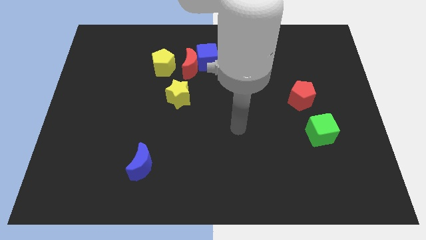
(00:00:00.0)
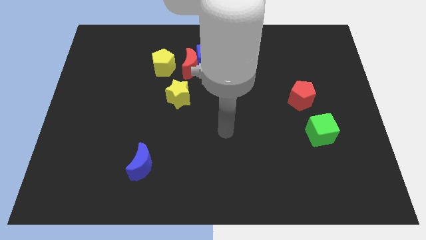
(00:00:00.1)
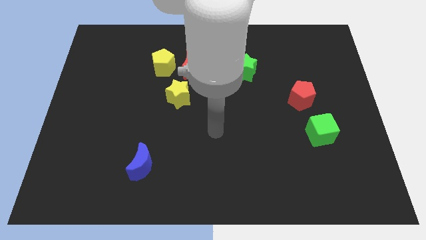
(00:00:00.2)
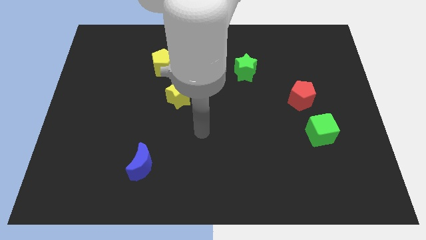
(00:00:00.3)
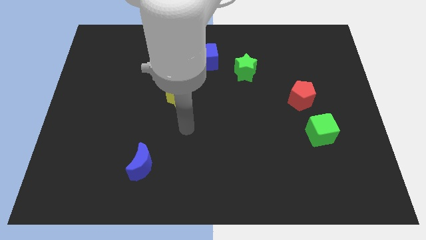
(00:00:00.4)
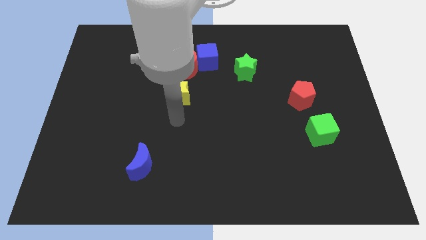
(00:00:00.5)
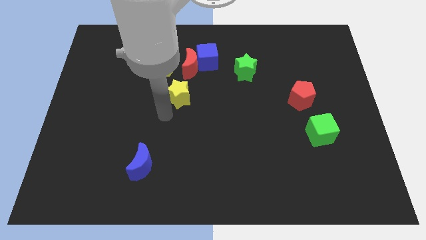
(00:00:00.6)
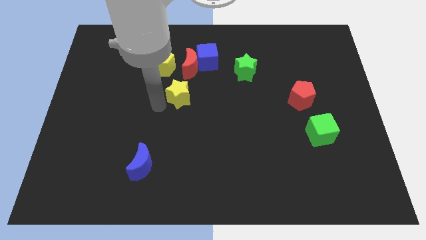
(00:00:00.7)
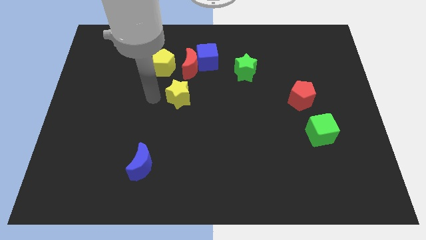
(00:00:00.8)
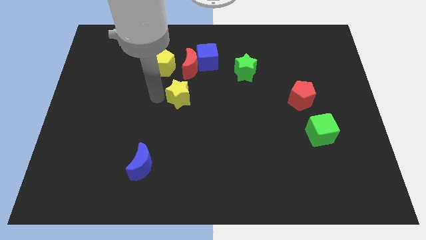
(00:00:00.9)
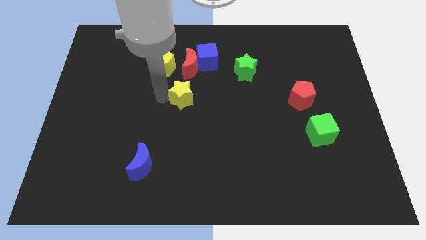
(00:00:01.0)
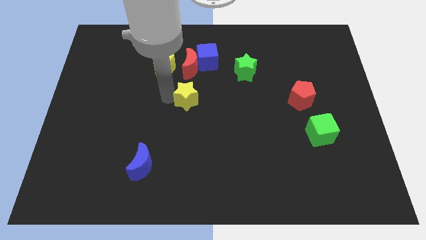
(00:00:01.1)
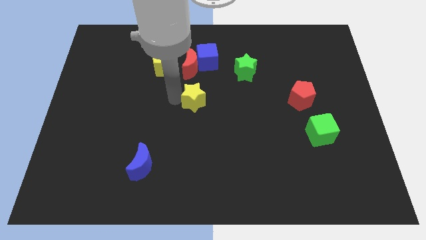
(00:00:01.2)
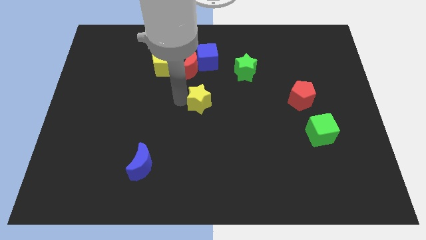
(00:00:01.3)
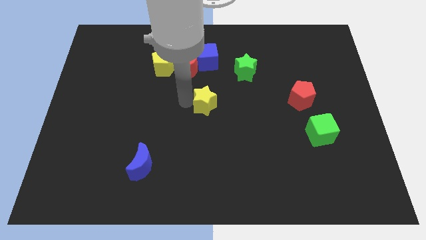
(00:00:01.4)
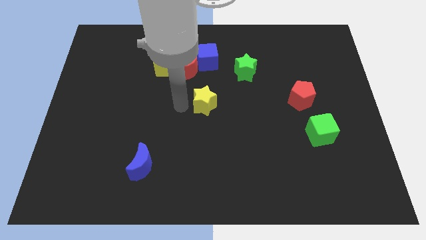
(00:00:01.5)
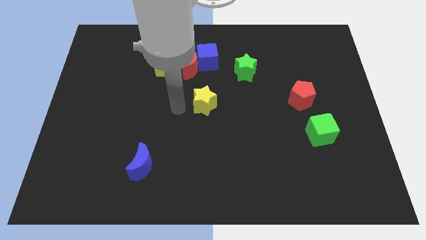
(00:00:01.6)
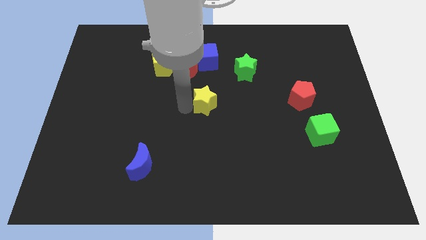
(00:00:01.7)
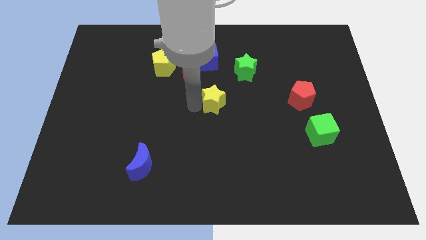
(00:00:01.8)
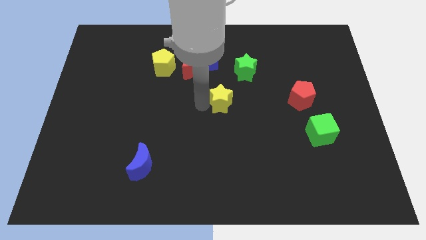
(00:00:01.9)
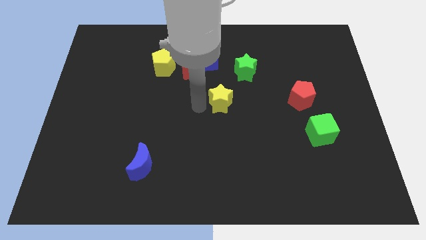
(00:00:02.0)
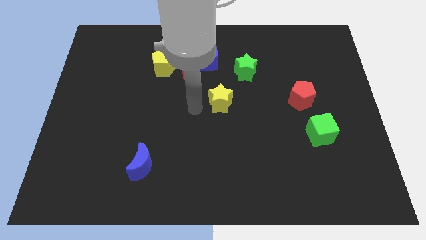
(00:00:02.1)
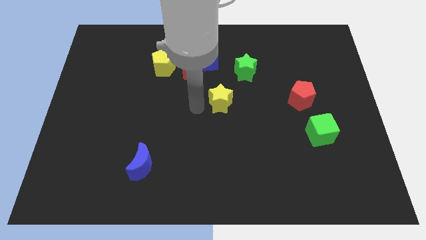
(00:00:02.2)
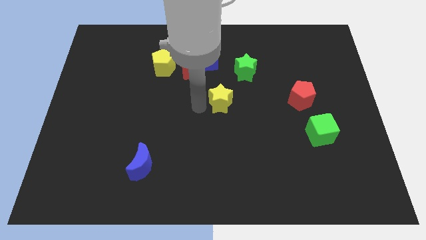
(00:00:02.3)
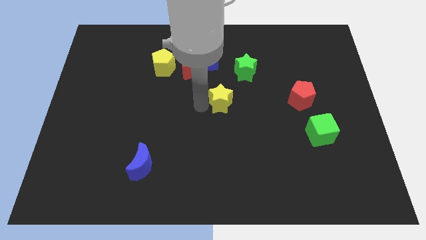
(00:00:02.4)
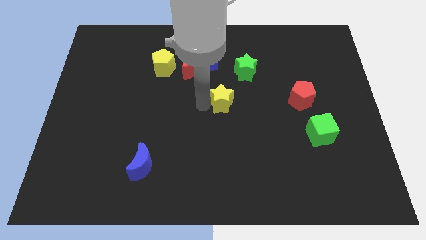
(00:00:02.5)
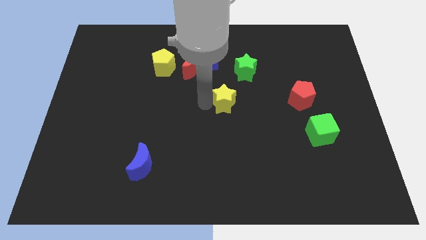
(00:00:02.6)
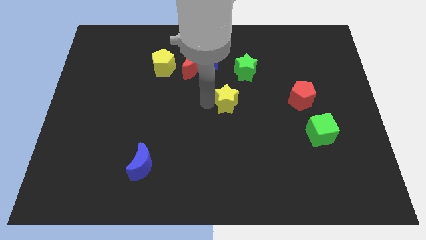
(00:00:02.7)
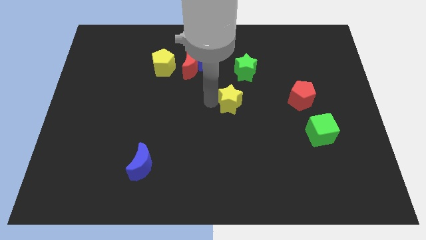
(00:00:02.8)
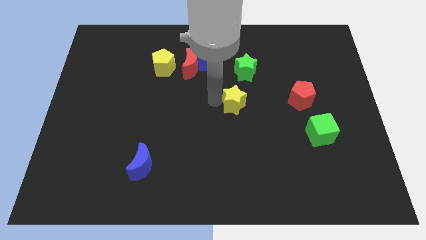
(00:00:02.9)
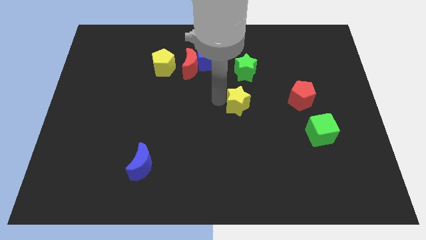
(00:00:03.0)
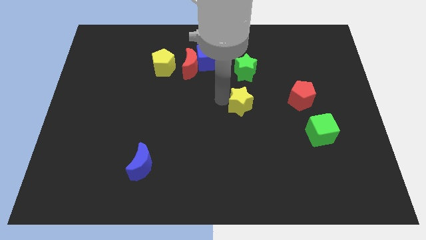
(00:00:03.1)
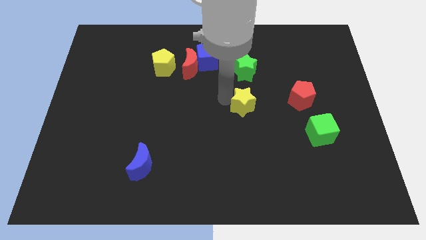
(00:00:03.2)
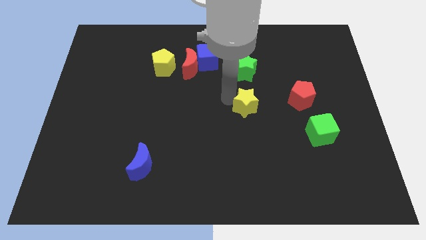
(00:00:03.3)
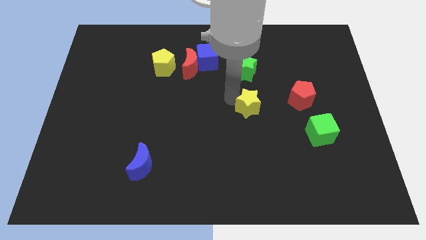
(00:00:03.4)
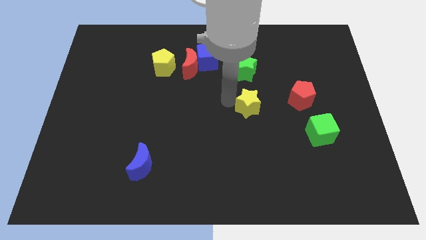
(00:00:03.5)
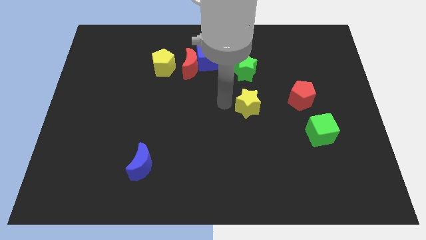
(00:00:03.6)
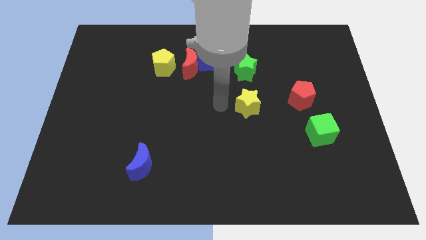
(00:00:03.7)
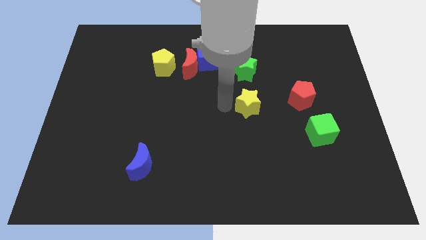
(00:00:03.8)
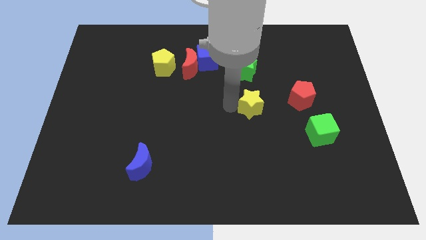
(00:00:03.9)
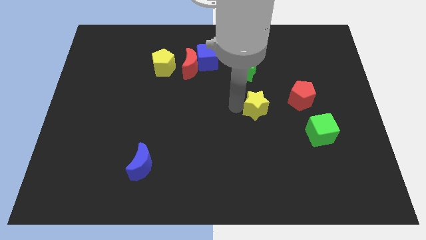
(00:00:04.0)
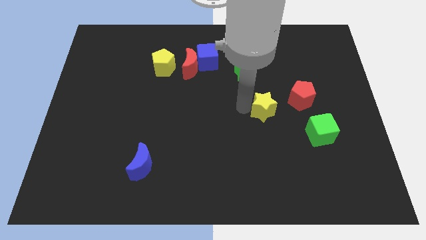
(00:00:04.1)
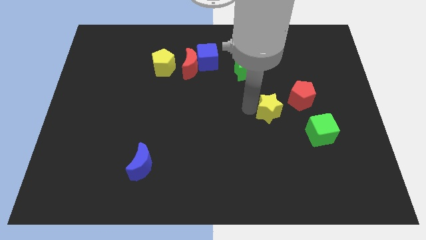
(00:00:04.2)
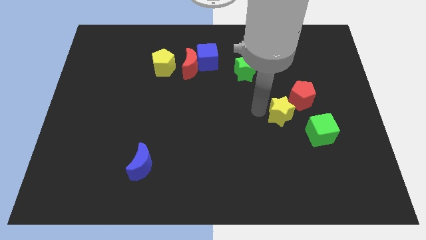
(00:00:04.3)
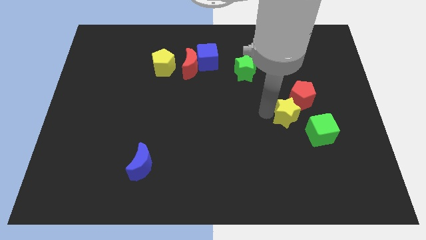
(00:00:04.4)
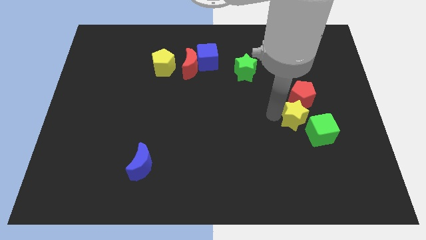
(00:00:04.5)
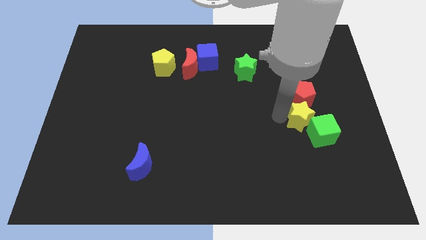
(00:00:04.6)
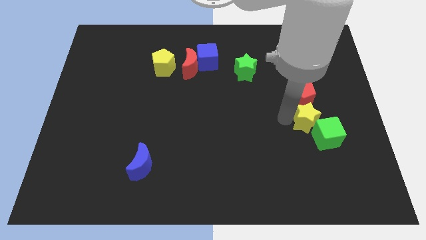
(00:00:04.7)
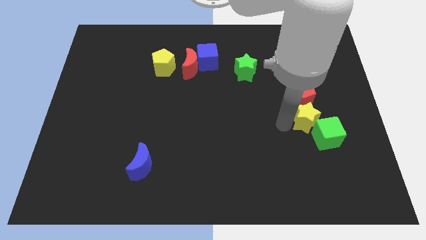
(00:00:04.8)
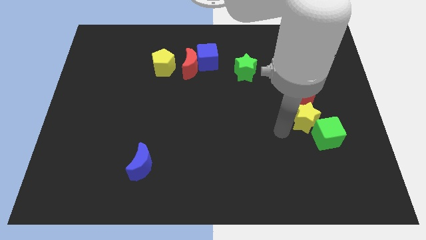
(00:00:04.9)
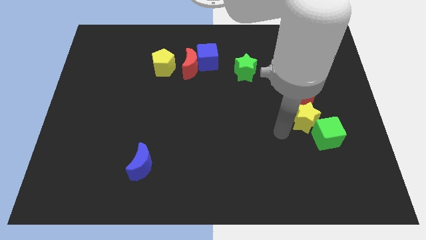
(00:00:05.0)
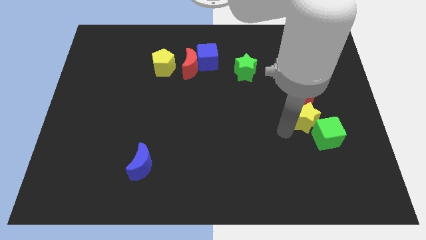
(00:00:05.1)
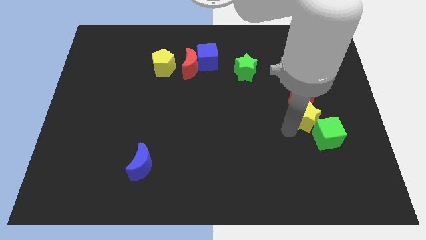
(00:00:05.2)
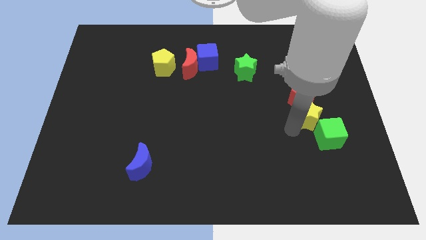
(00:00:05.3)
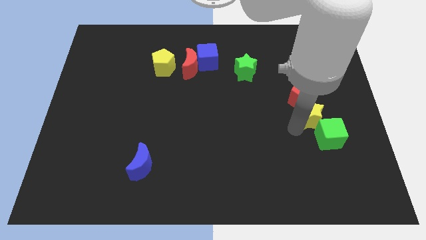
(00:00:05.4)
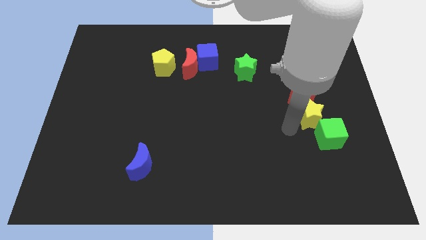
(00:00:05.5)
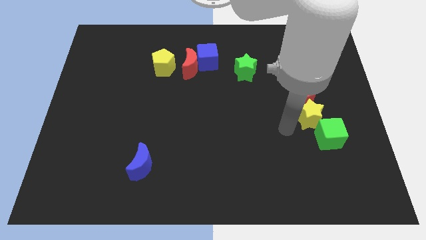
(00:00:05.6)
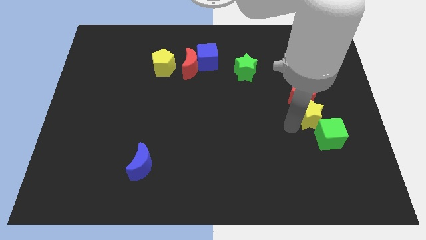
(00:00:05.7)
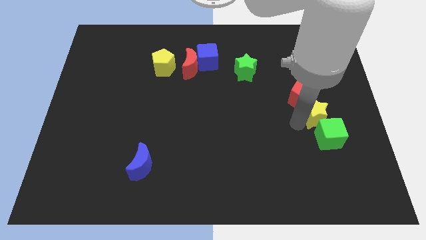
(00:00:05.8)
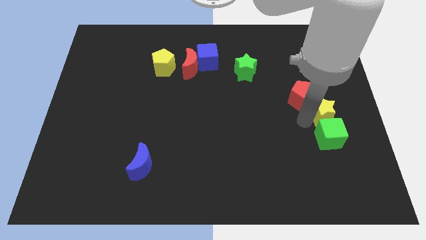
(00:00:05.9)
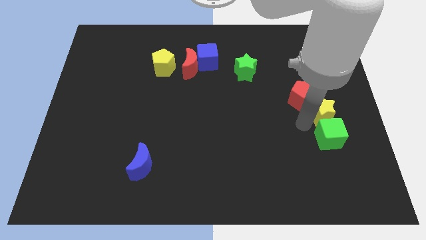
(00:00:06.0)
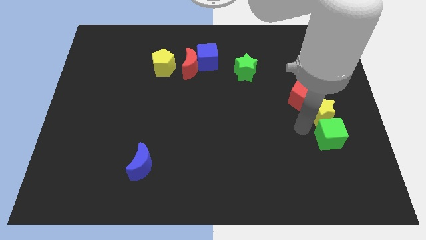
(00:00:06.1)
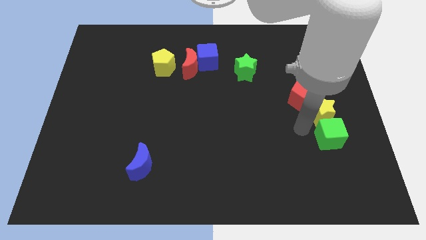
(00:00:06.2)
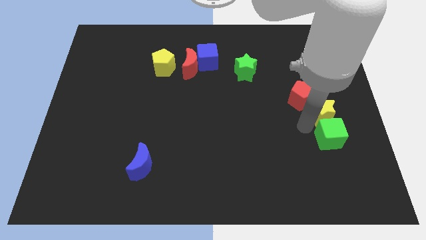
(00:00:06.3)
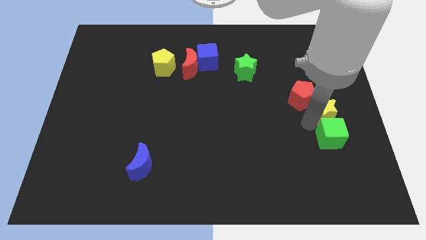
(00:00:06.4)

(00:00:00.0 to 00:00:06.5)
put the yellow star to the right side of the board
